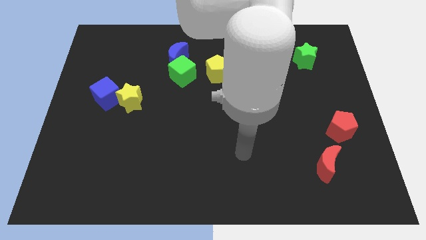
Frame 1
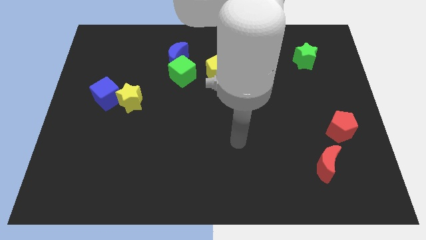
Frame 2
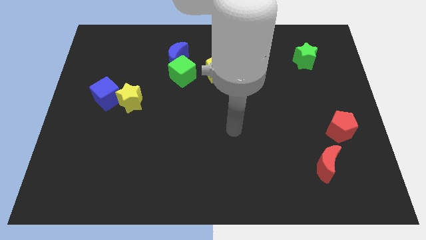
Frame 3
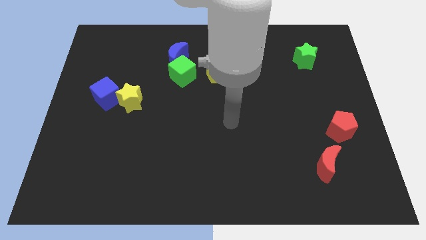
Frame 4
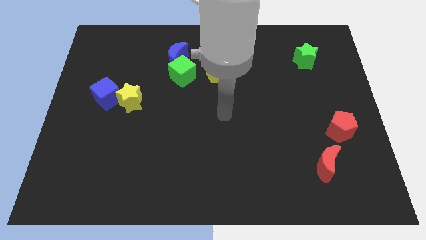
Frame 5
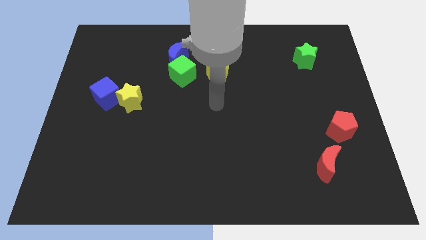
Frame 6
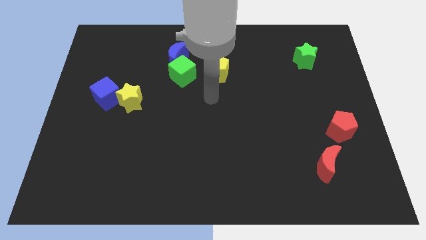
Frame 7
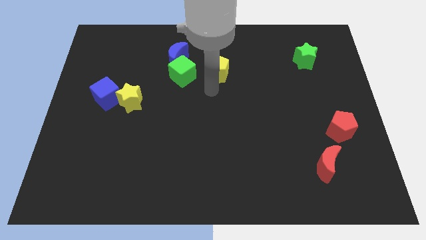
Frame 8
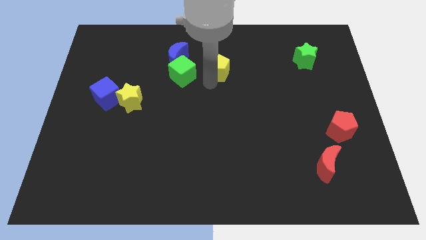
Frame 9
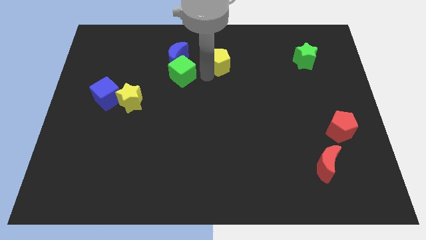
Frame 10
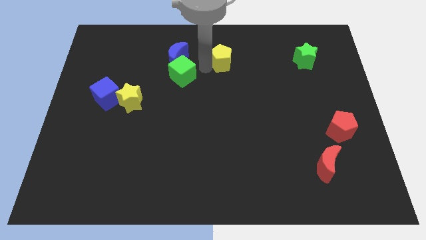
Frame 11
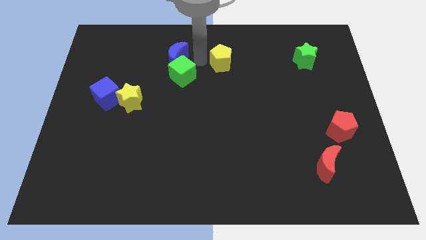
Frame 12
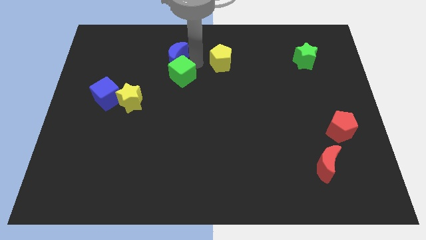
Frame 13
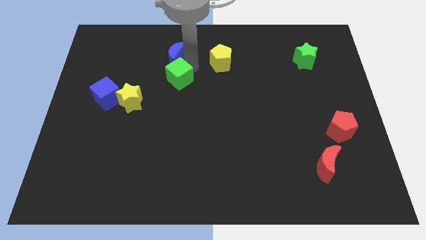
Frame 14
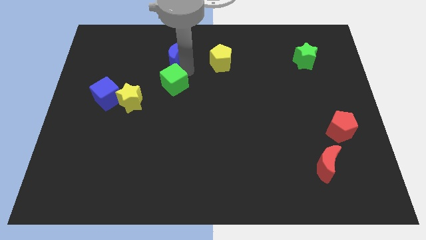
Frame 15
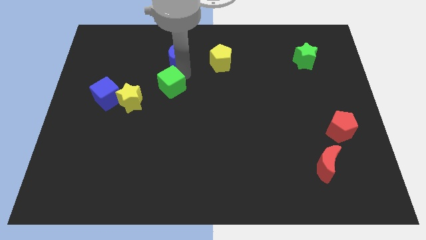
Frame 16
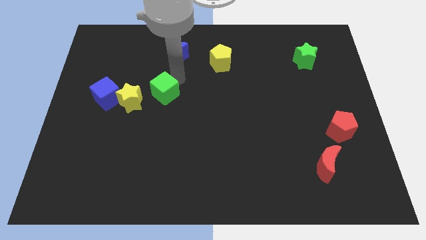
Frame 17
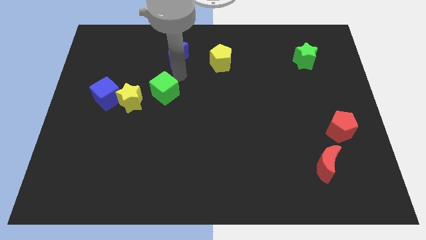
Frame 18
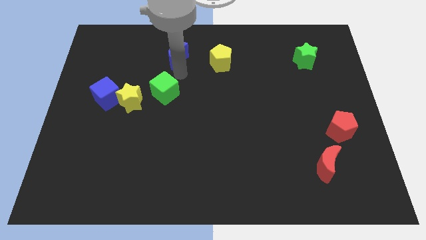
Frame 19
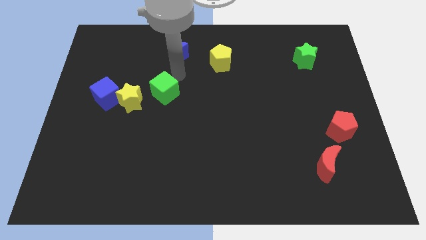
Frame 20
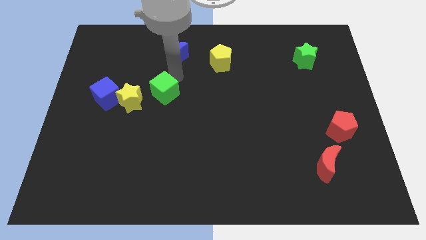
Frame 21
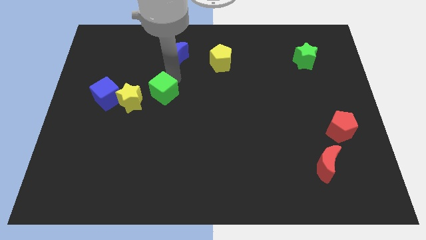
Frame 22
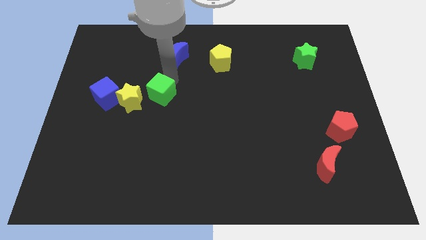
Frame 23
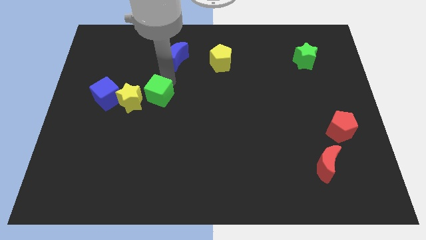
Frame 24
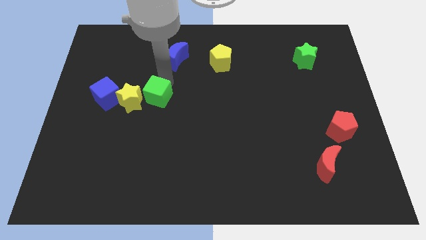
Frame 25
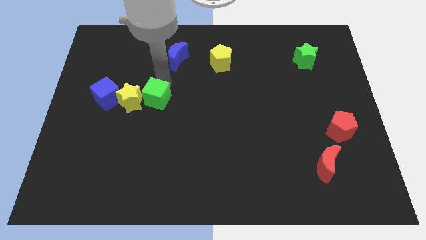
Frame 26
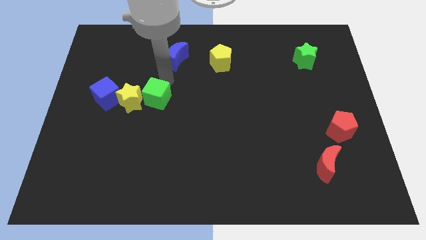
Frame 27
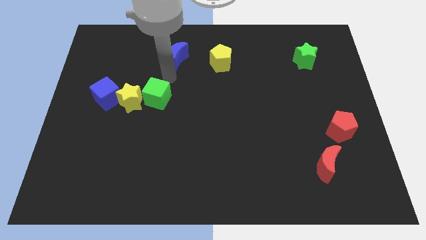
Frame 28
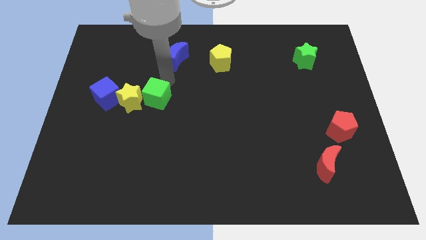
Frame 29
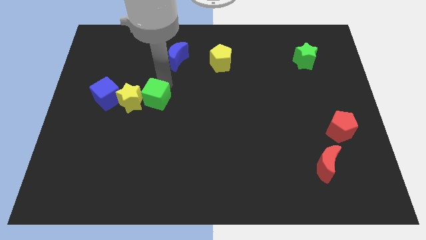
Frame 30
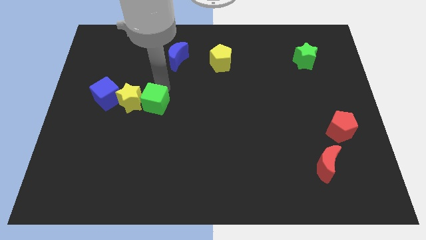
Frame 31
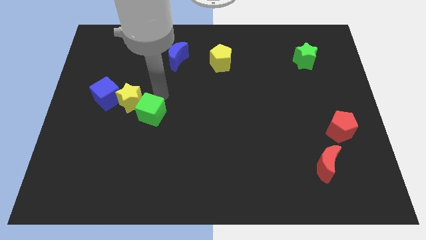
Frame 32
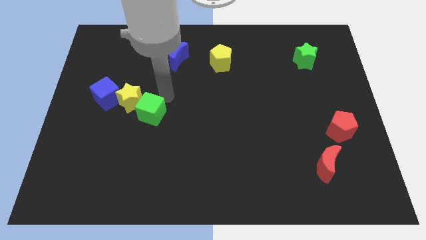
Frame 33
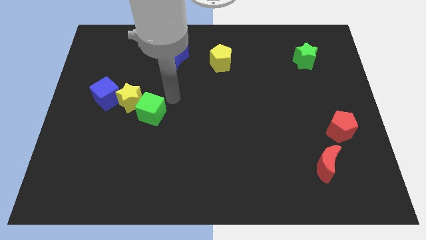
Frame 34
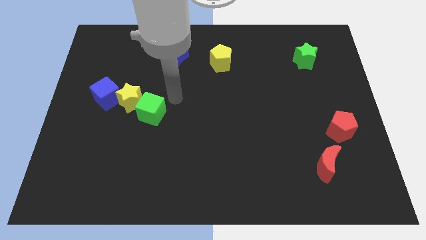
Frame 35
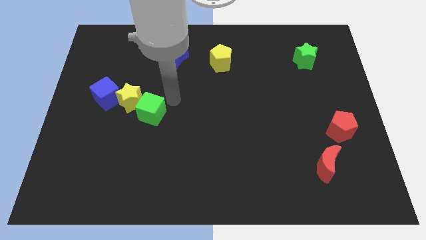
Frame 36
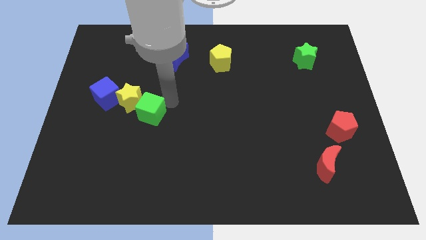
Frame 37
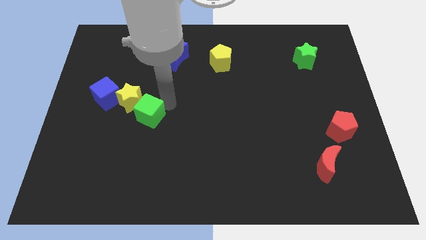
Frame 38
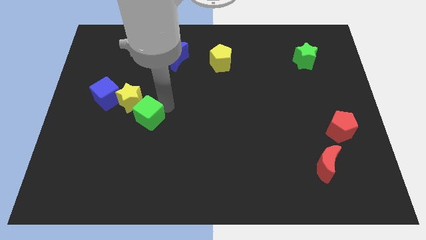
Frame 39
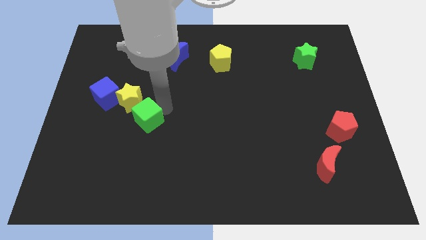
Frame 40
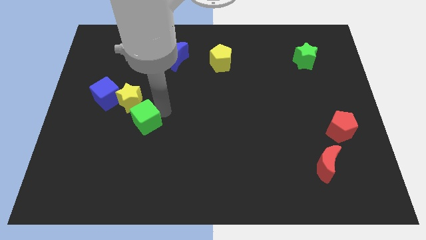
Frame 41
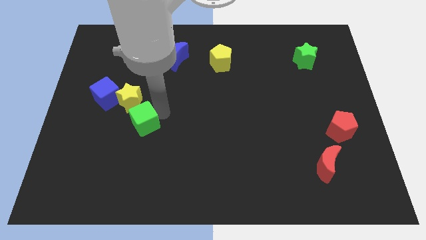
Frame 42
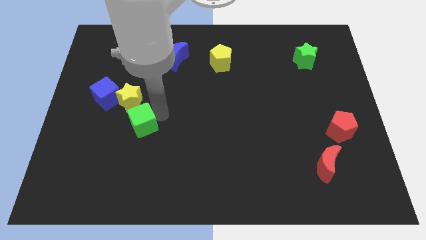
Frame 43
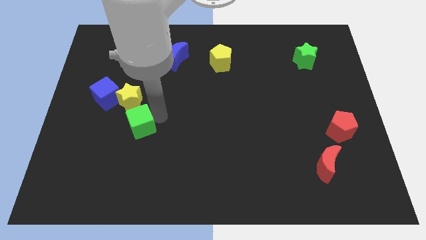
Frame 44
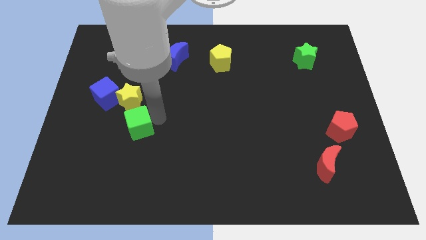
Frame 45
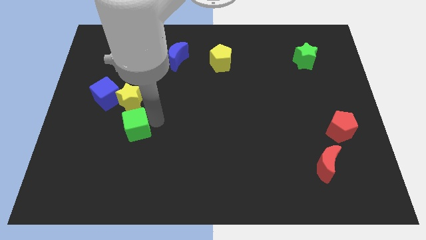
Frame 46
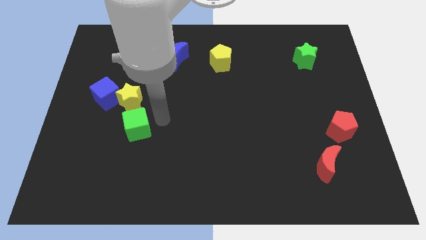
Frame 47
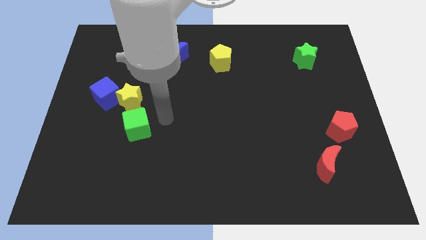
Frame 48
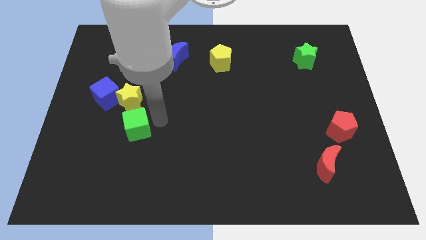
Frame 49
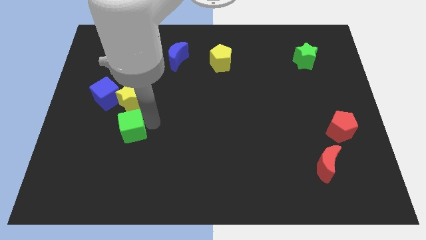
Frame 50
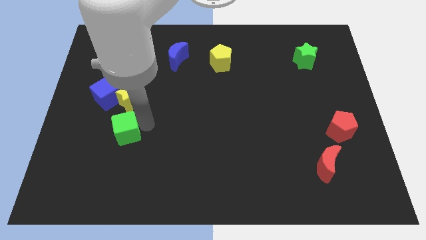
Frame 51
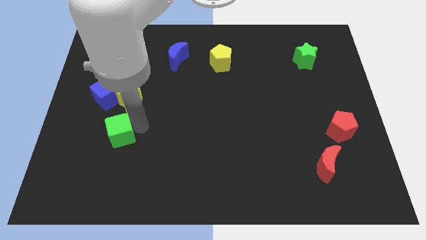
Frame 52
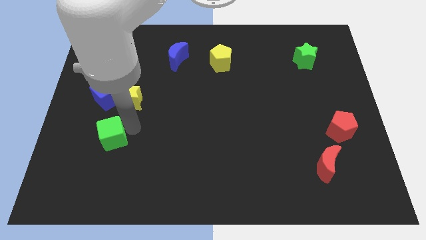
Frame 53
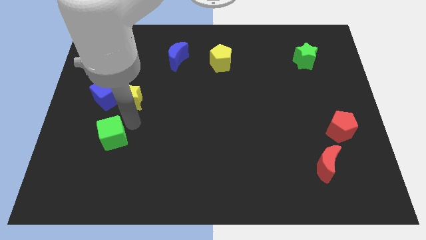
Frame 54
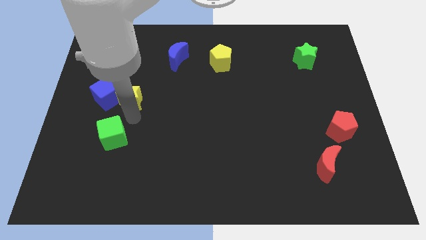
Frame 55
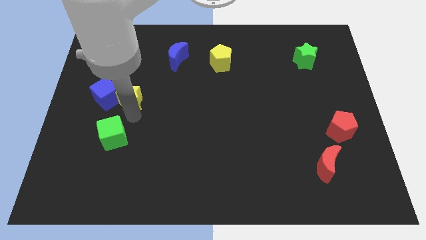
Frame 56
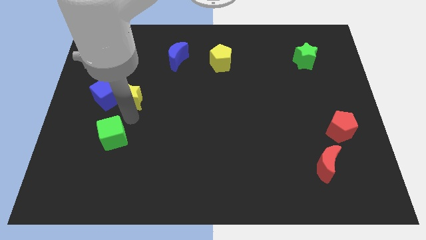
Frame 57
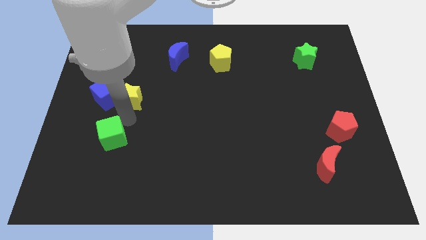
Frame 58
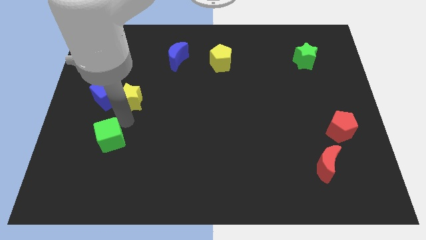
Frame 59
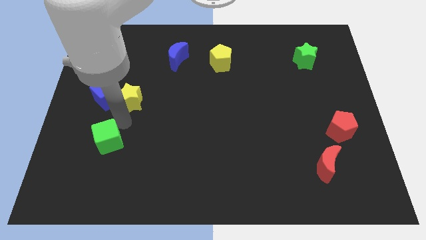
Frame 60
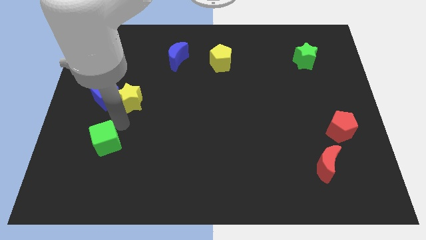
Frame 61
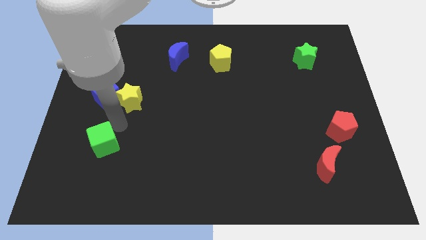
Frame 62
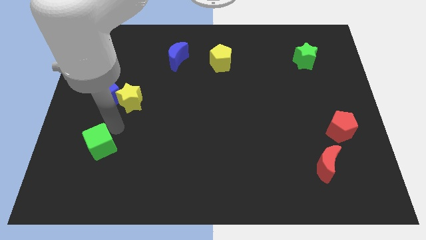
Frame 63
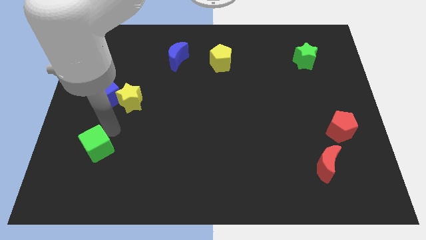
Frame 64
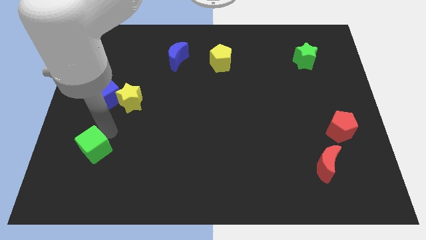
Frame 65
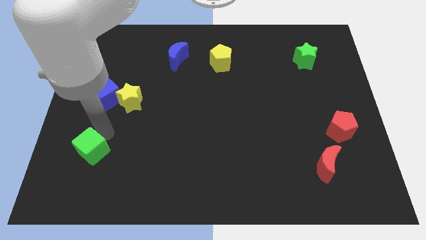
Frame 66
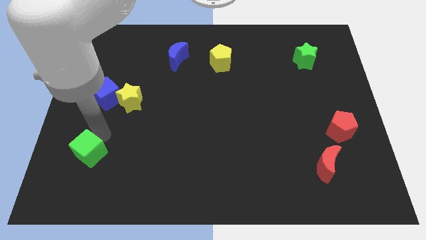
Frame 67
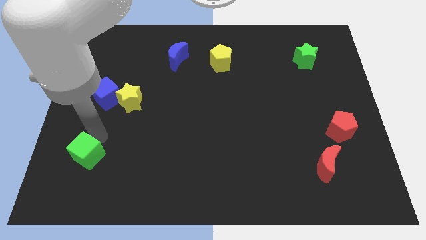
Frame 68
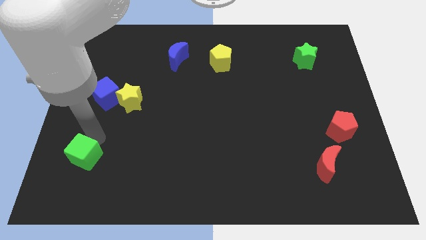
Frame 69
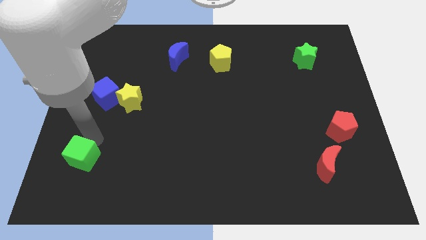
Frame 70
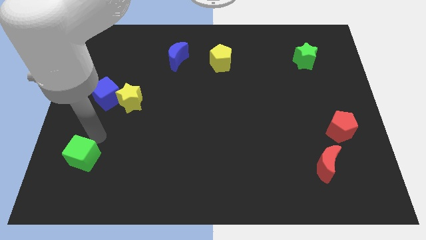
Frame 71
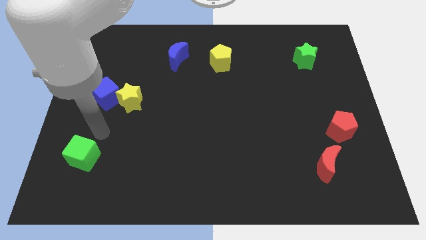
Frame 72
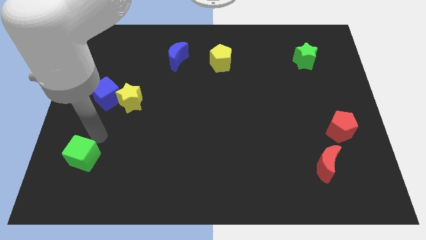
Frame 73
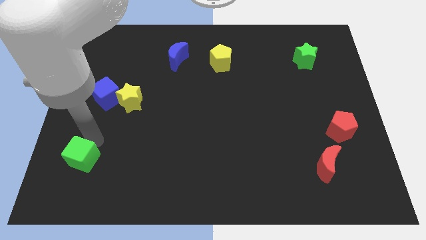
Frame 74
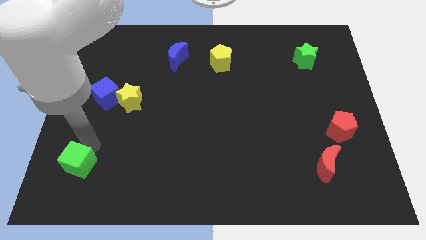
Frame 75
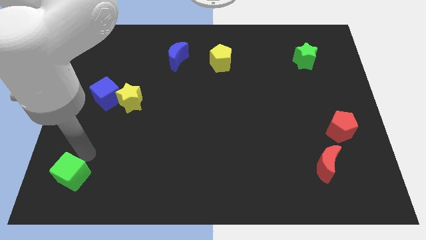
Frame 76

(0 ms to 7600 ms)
put the green cube to the lower left corner

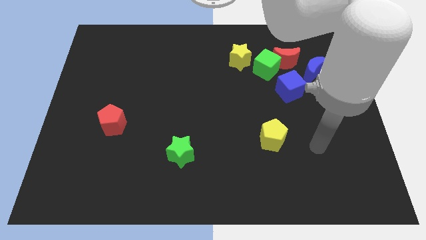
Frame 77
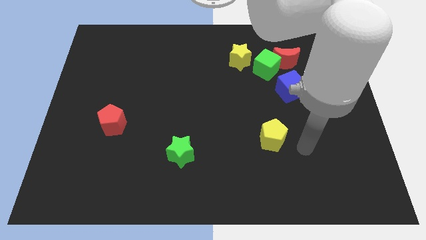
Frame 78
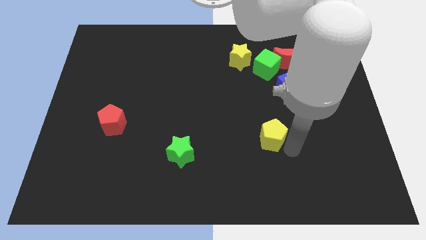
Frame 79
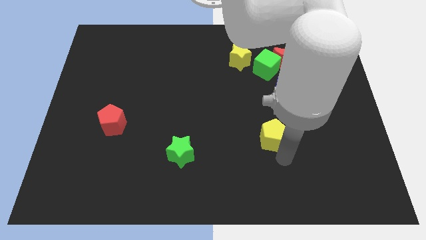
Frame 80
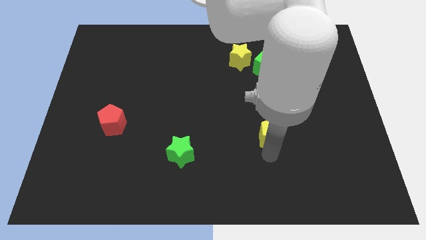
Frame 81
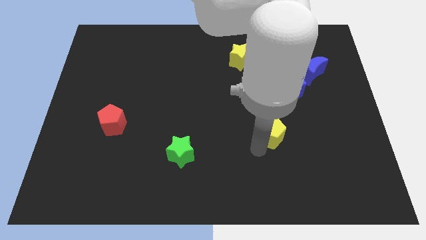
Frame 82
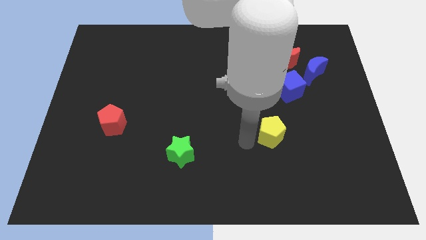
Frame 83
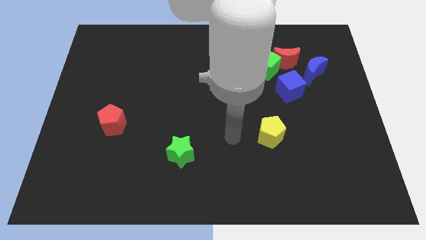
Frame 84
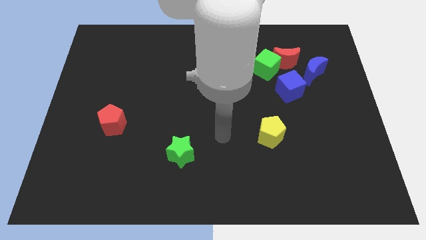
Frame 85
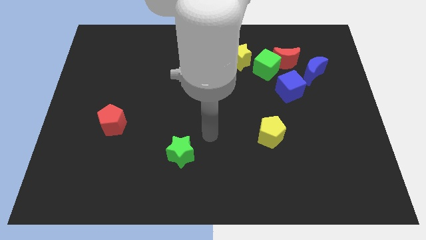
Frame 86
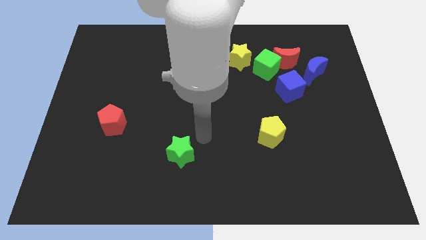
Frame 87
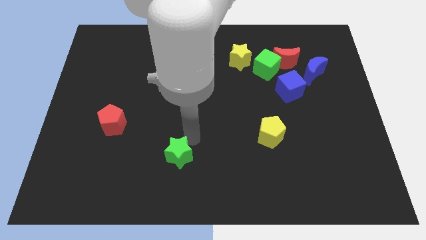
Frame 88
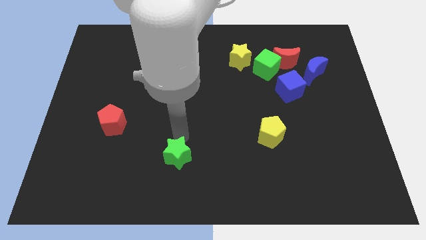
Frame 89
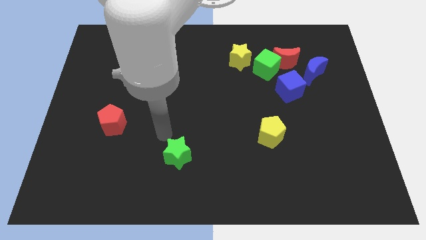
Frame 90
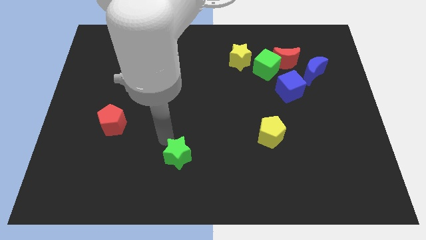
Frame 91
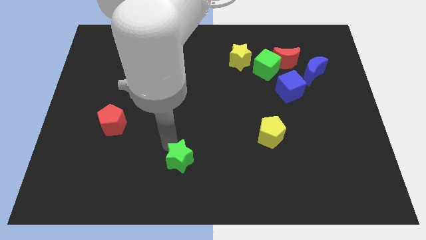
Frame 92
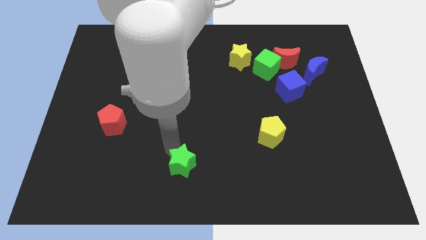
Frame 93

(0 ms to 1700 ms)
put the green star to the bottom
